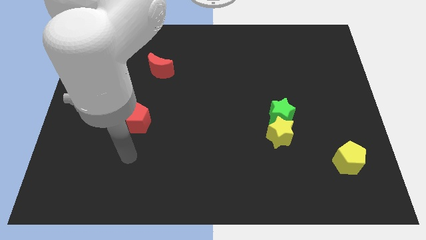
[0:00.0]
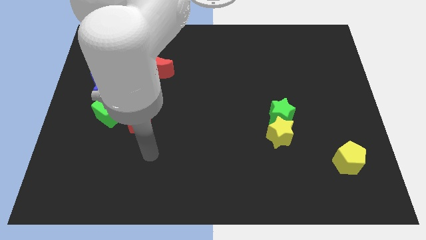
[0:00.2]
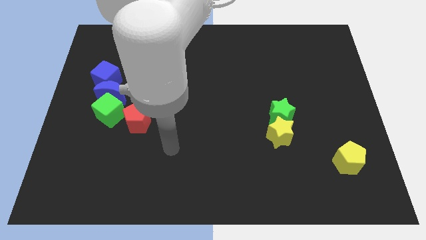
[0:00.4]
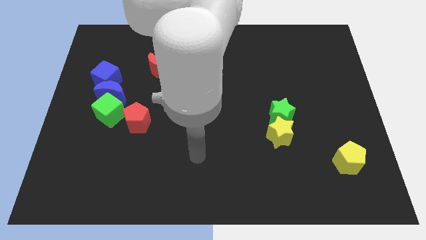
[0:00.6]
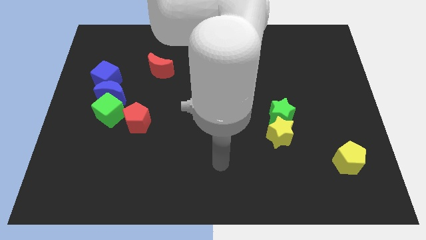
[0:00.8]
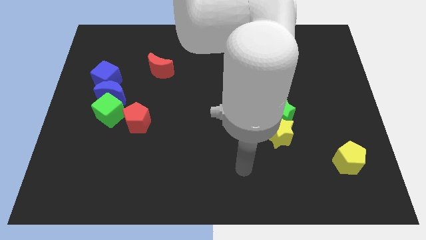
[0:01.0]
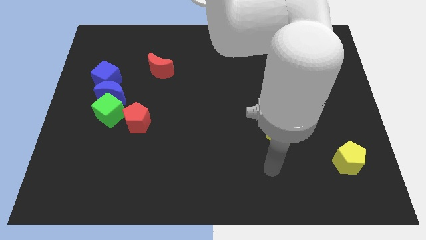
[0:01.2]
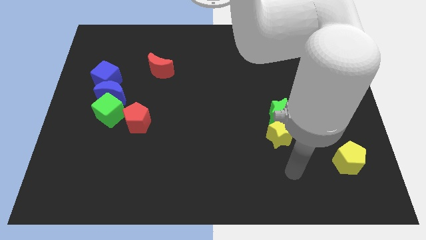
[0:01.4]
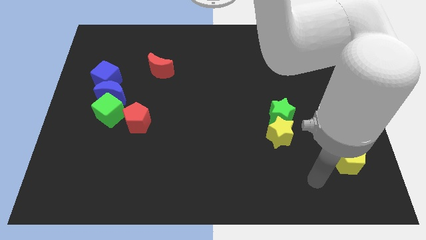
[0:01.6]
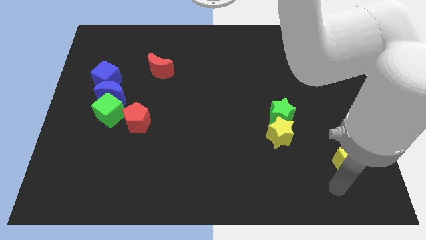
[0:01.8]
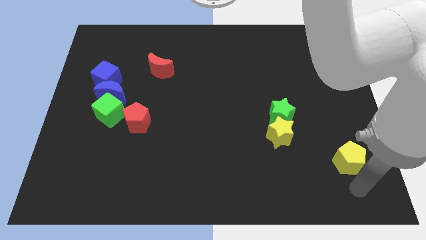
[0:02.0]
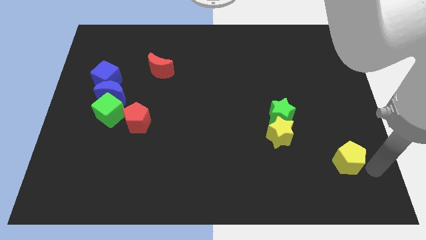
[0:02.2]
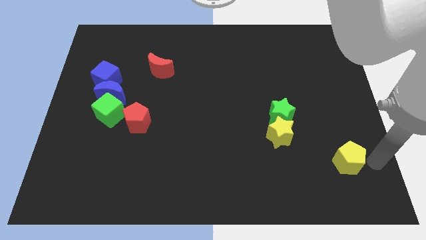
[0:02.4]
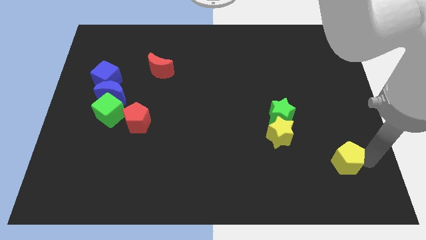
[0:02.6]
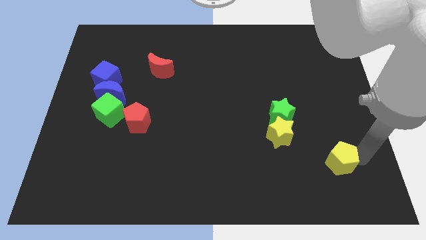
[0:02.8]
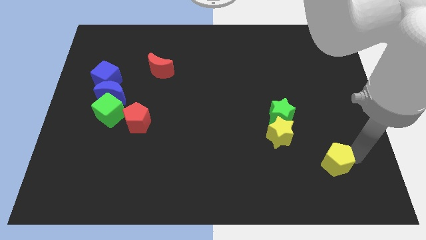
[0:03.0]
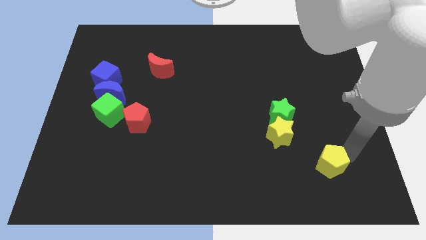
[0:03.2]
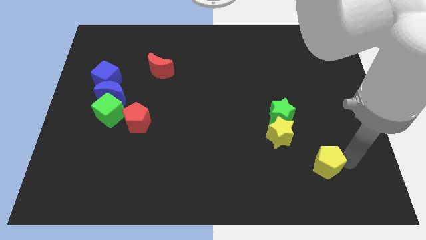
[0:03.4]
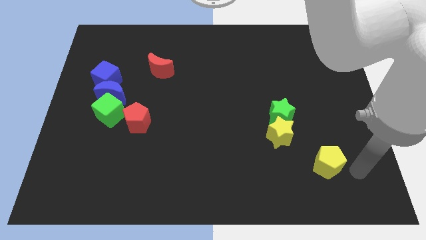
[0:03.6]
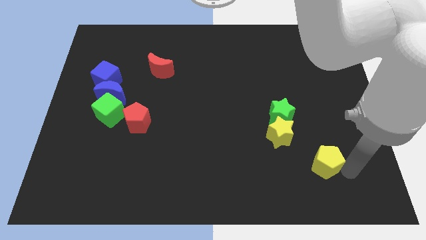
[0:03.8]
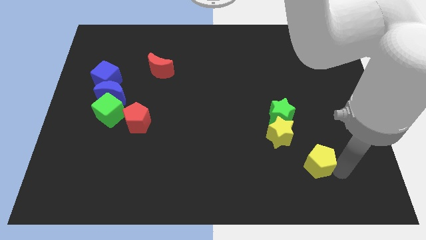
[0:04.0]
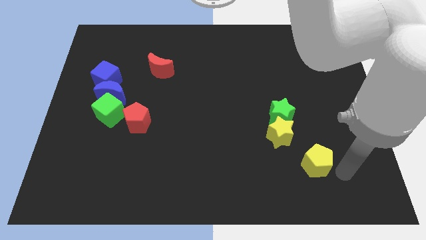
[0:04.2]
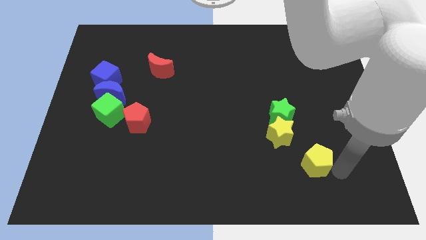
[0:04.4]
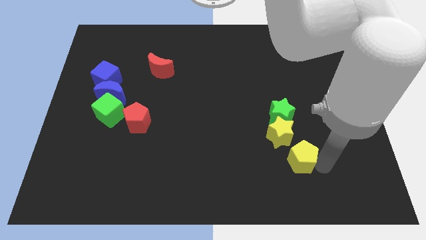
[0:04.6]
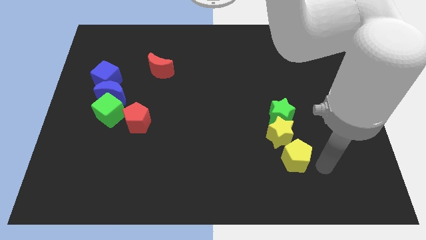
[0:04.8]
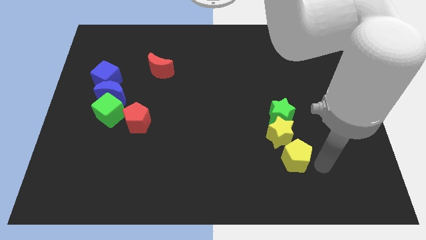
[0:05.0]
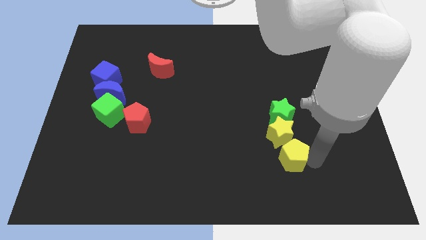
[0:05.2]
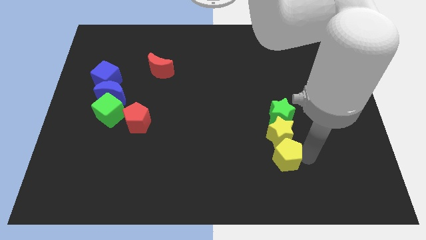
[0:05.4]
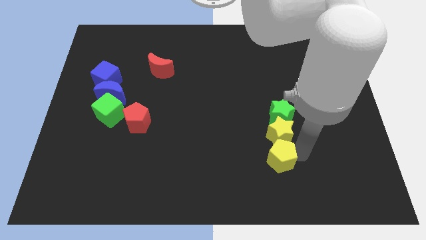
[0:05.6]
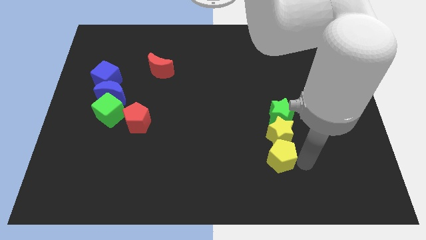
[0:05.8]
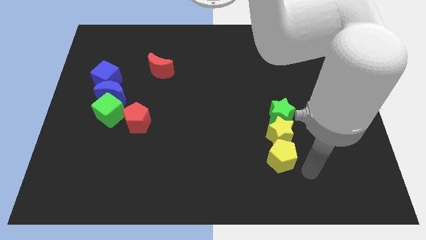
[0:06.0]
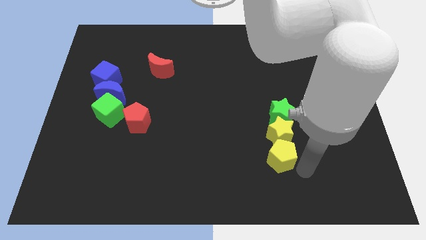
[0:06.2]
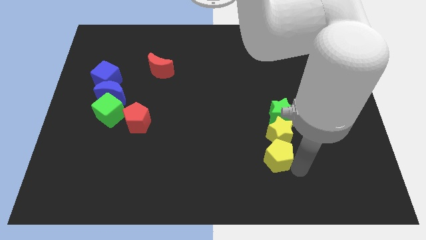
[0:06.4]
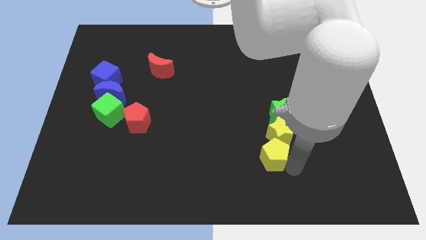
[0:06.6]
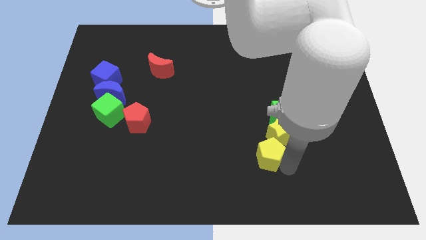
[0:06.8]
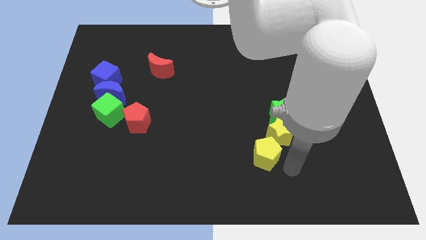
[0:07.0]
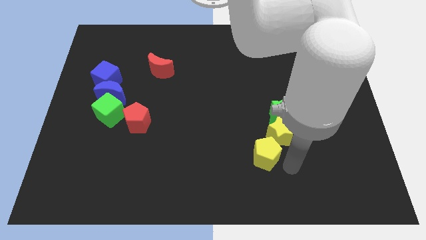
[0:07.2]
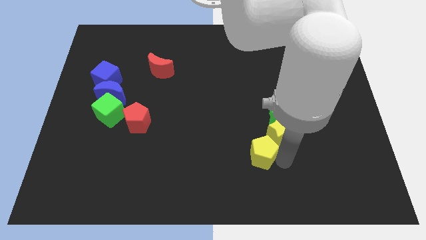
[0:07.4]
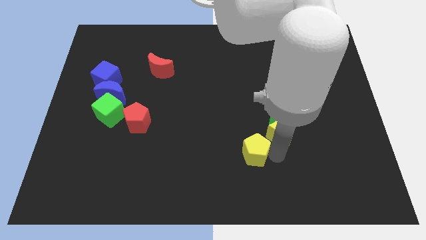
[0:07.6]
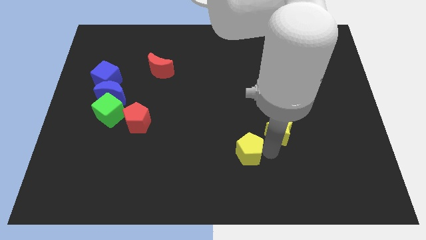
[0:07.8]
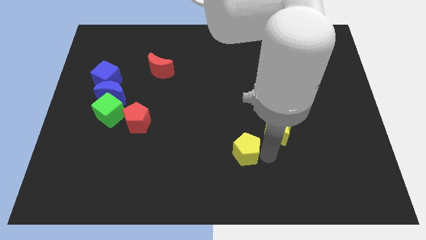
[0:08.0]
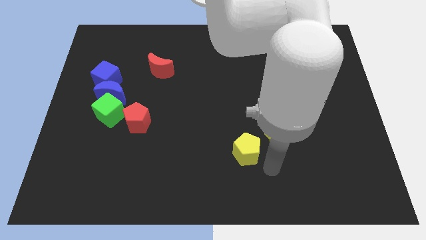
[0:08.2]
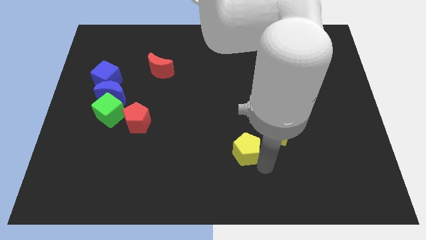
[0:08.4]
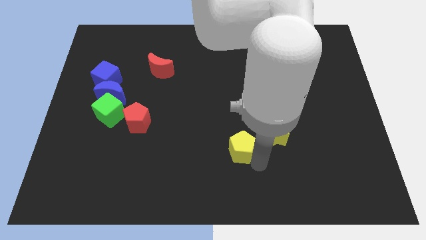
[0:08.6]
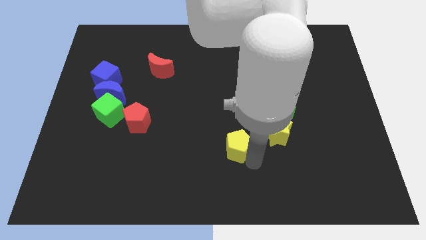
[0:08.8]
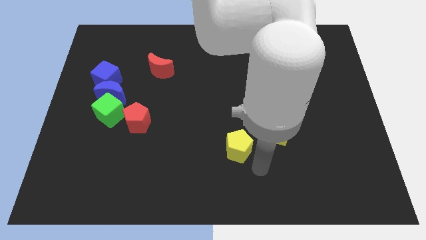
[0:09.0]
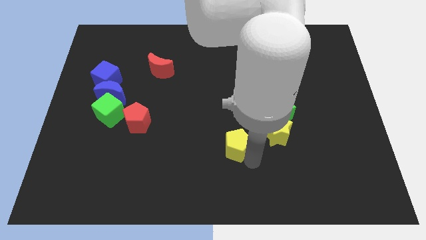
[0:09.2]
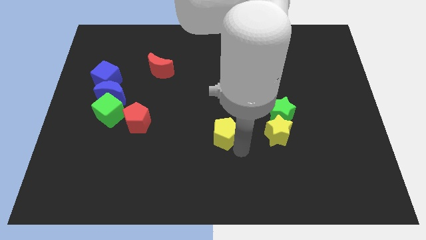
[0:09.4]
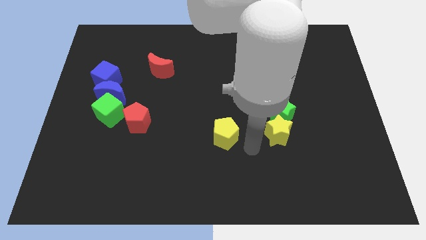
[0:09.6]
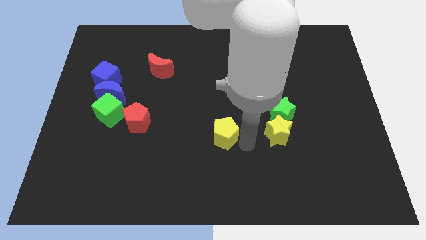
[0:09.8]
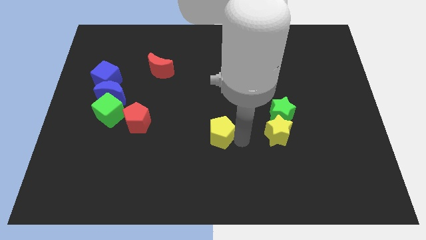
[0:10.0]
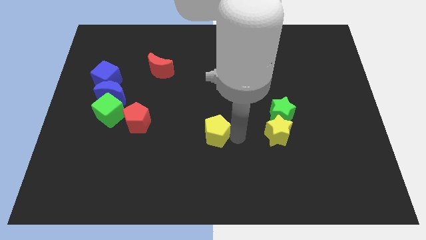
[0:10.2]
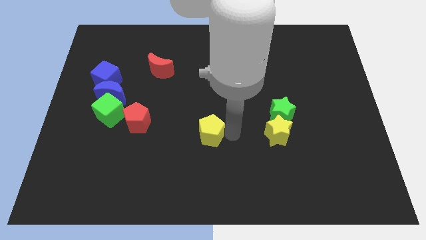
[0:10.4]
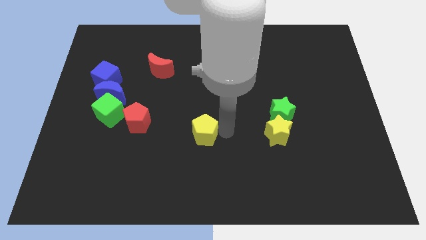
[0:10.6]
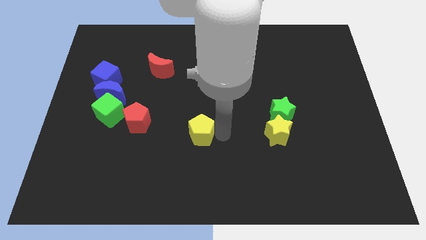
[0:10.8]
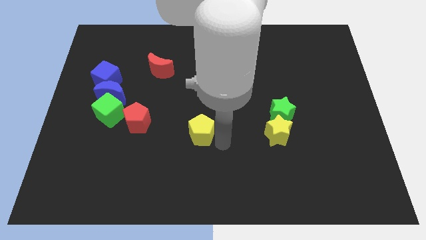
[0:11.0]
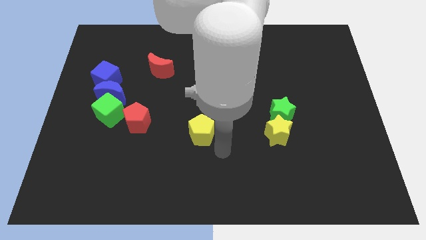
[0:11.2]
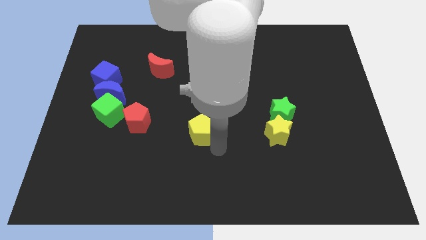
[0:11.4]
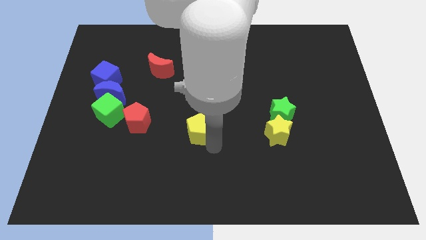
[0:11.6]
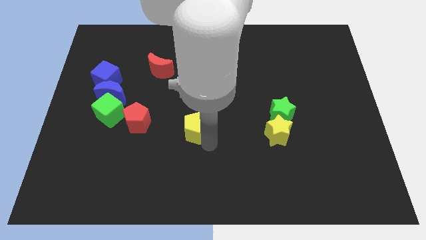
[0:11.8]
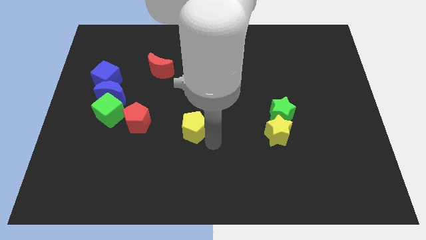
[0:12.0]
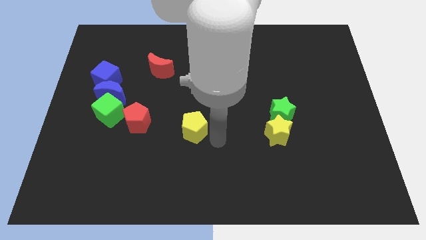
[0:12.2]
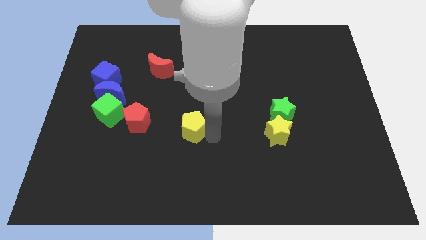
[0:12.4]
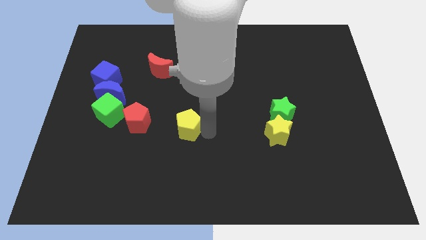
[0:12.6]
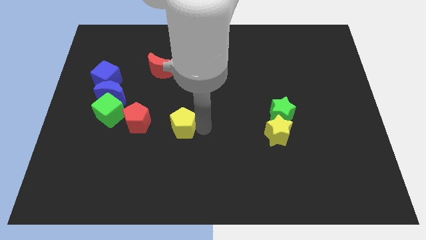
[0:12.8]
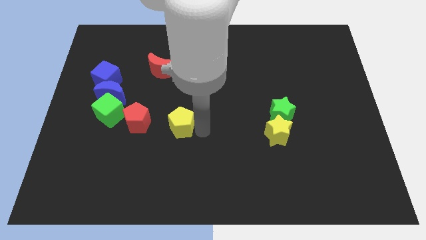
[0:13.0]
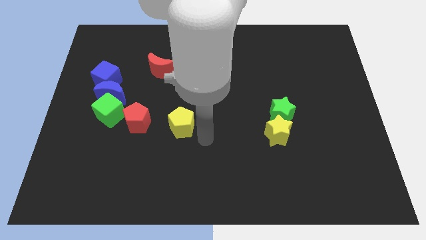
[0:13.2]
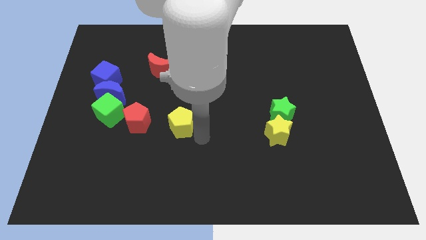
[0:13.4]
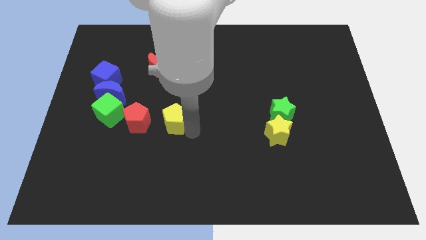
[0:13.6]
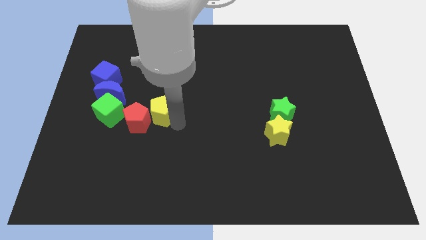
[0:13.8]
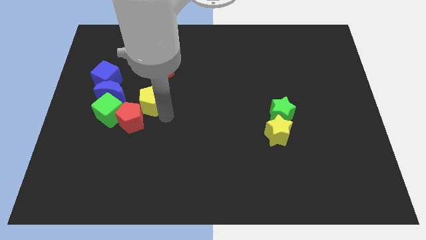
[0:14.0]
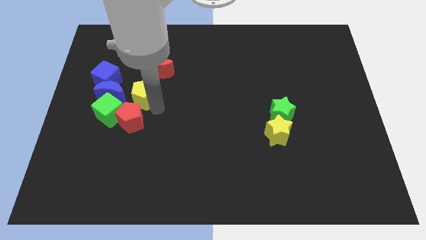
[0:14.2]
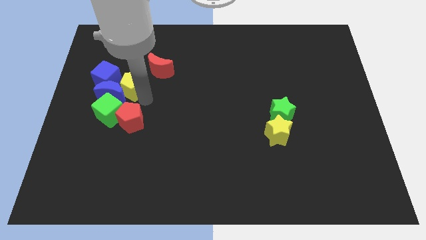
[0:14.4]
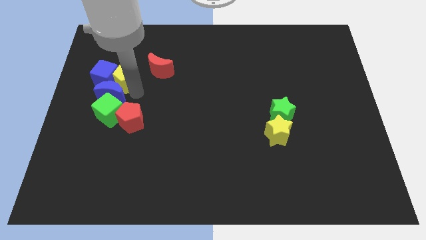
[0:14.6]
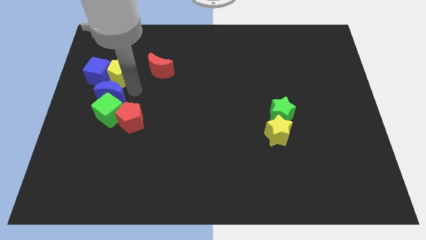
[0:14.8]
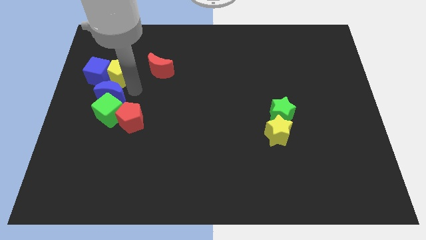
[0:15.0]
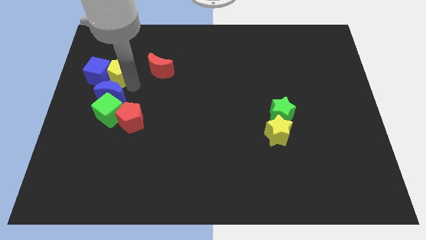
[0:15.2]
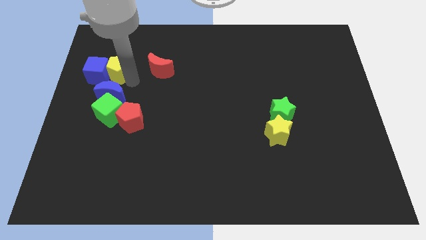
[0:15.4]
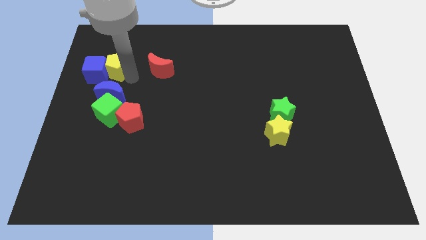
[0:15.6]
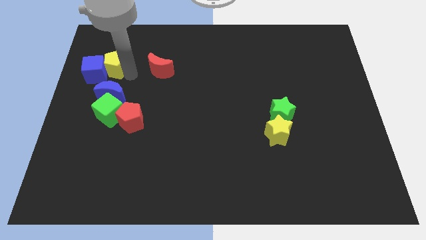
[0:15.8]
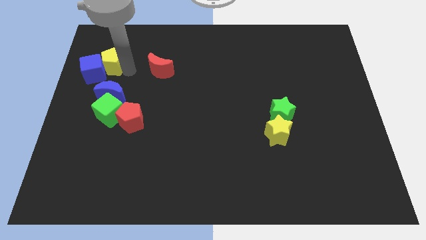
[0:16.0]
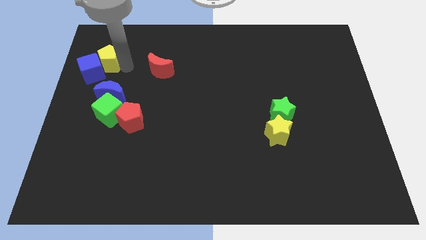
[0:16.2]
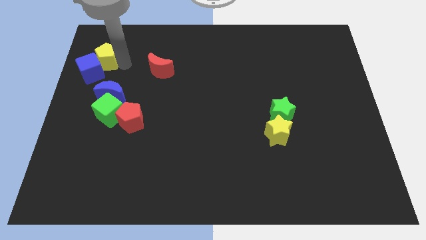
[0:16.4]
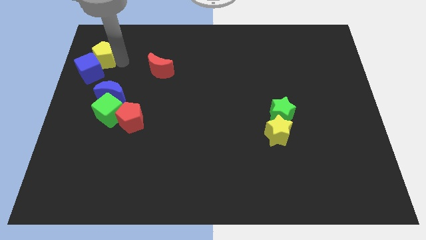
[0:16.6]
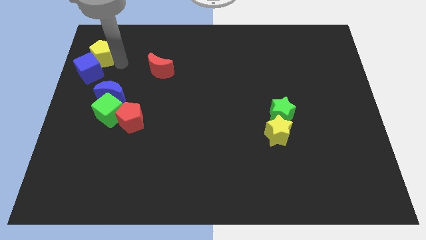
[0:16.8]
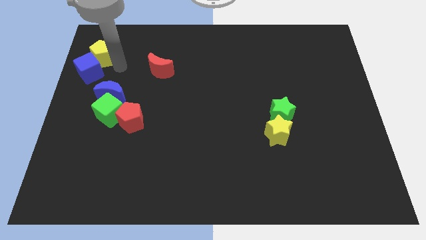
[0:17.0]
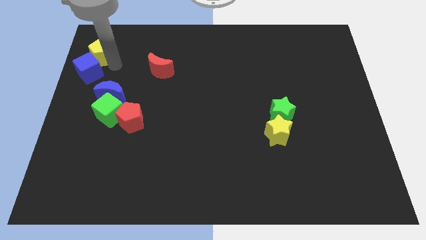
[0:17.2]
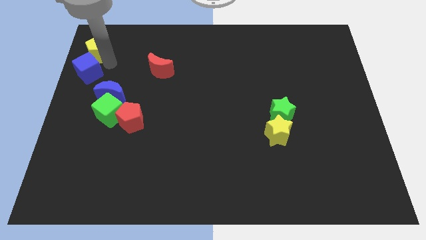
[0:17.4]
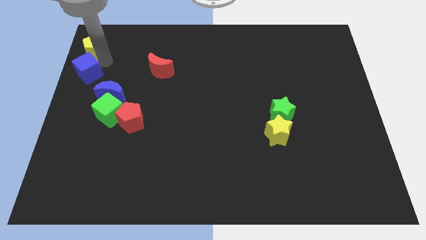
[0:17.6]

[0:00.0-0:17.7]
slide the yellow pentagon to the top left corner
